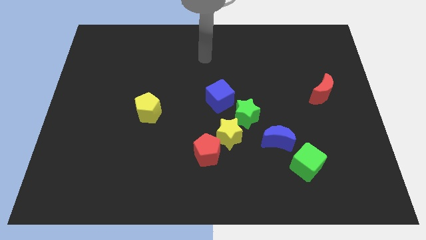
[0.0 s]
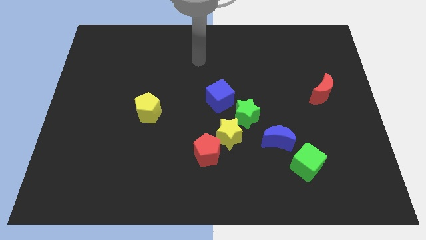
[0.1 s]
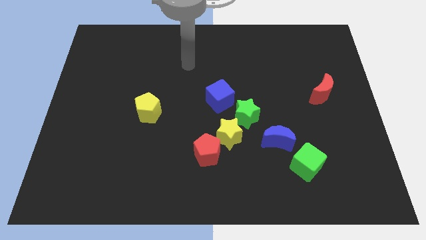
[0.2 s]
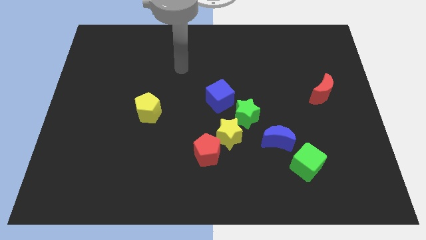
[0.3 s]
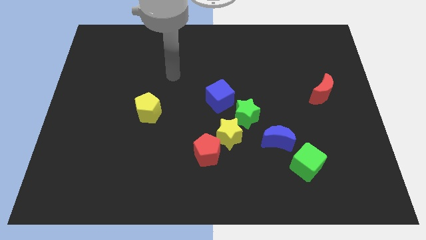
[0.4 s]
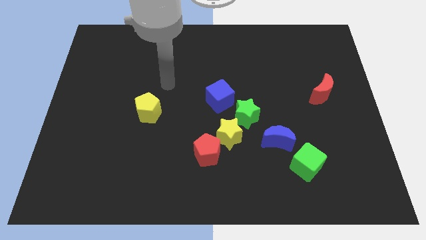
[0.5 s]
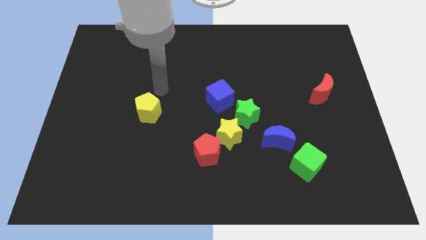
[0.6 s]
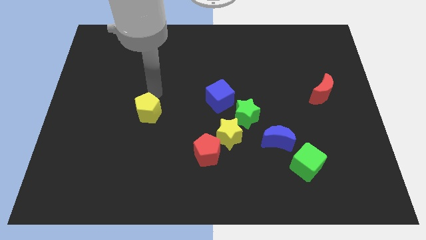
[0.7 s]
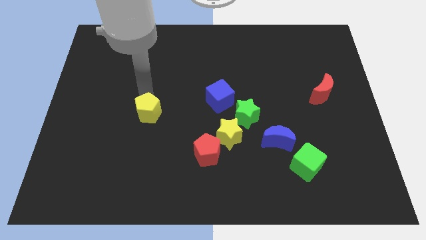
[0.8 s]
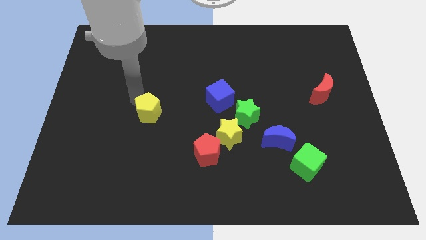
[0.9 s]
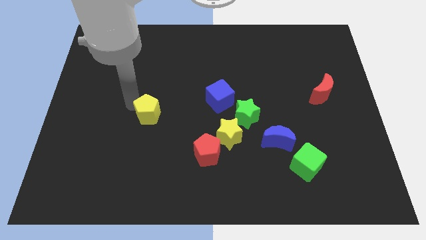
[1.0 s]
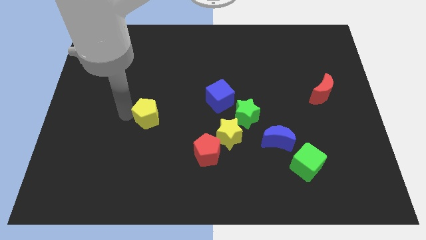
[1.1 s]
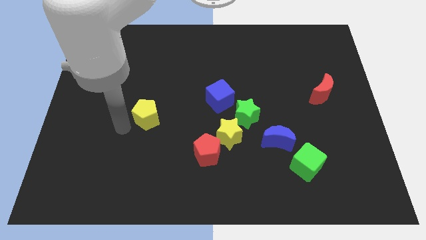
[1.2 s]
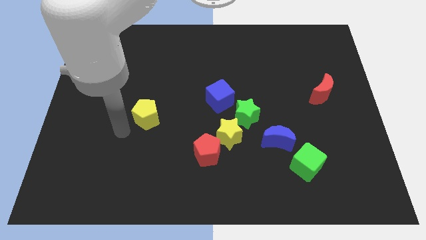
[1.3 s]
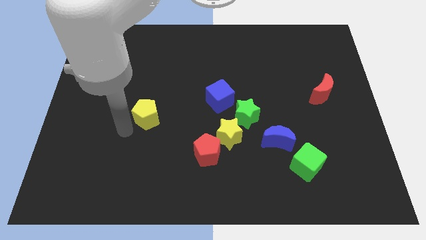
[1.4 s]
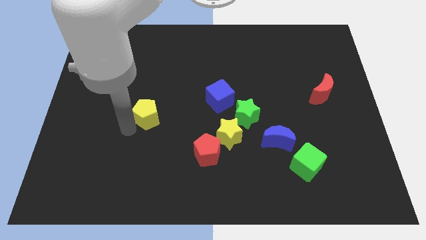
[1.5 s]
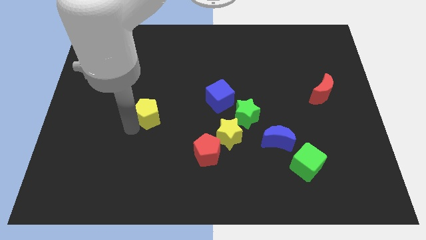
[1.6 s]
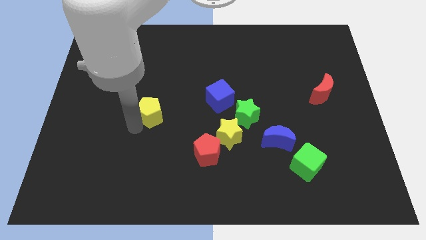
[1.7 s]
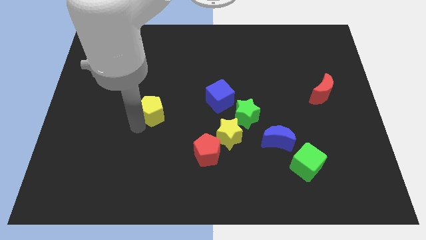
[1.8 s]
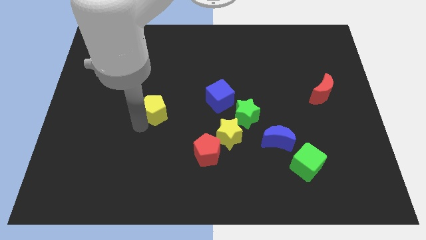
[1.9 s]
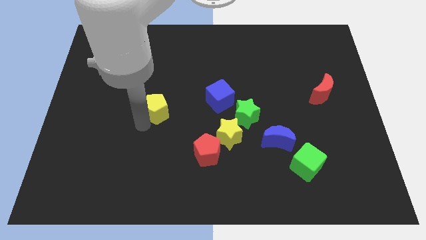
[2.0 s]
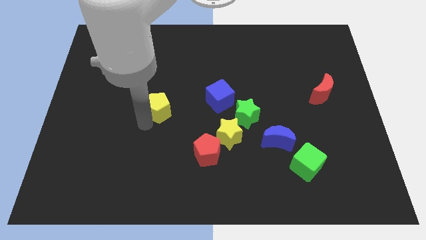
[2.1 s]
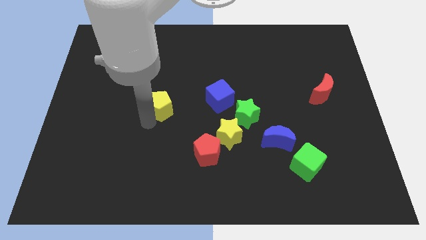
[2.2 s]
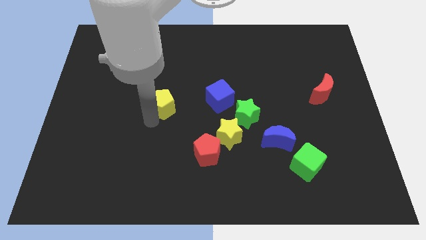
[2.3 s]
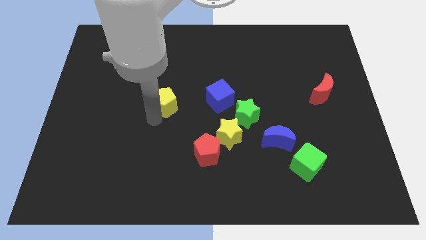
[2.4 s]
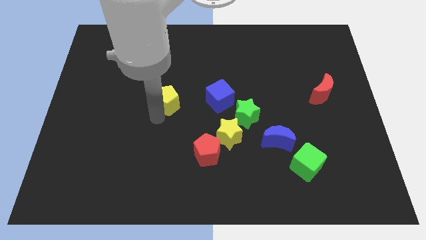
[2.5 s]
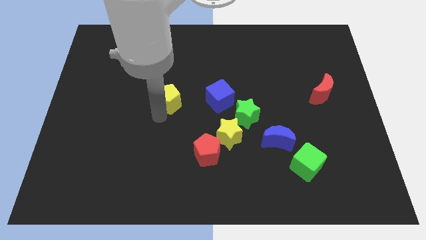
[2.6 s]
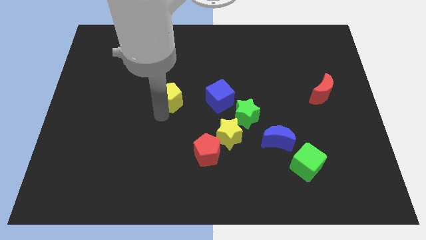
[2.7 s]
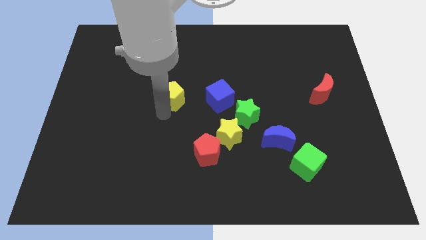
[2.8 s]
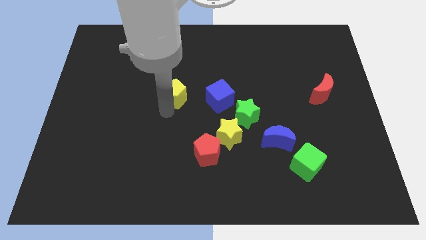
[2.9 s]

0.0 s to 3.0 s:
slide the yellow pentagon up and to the right a little bit

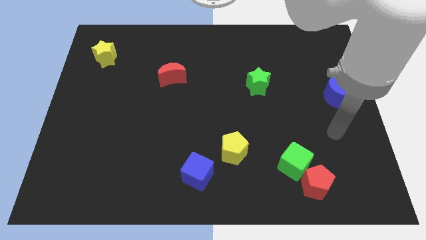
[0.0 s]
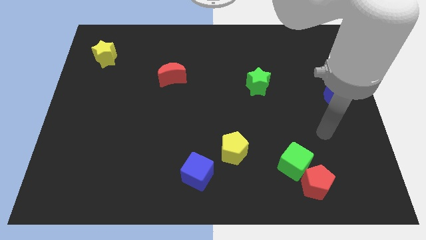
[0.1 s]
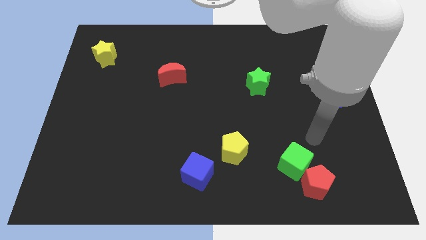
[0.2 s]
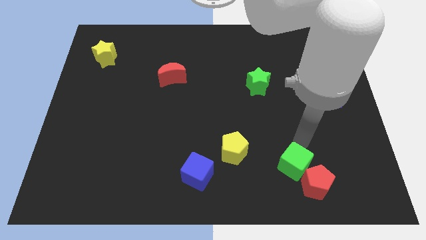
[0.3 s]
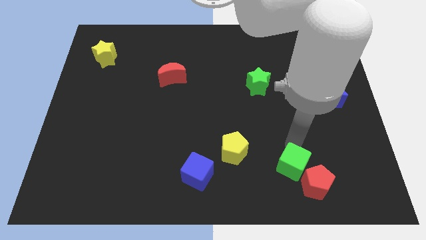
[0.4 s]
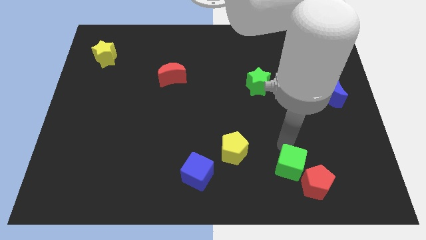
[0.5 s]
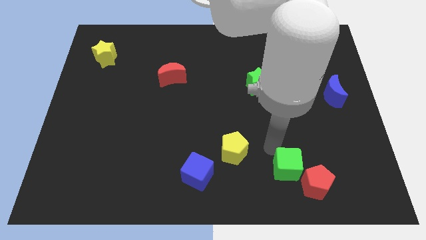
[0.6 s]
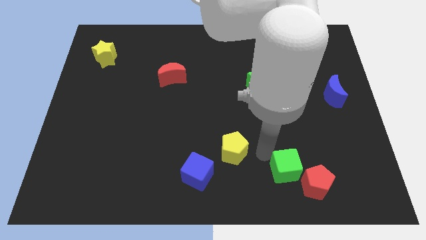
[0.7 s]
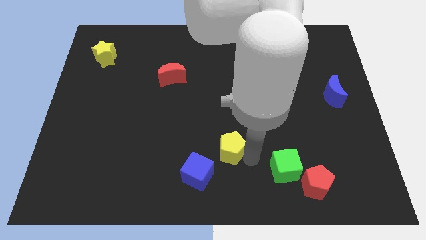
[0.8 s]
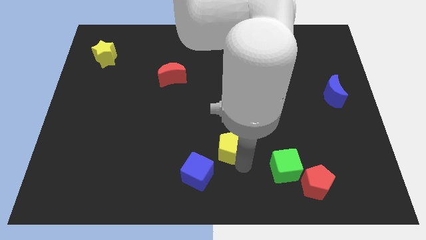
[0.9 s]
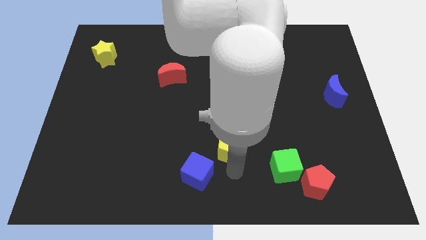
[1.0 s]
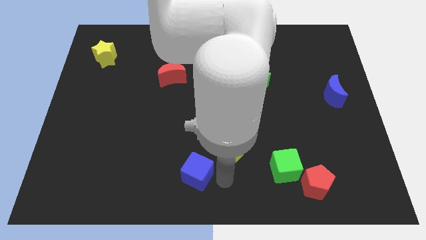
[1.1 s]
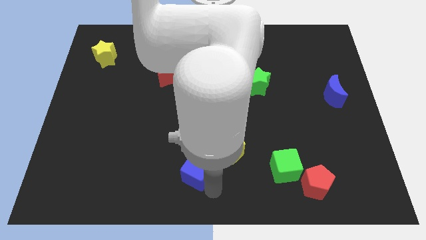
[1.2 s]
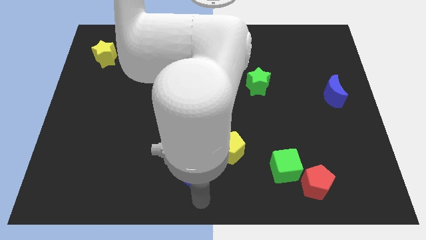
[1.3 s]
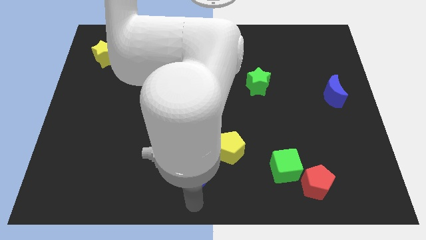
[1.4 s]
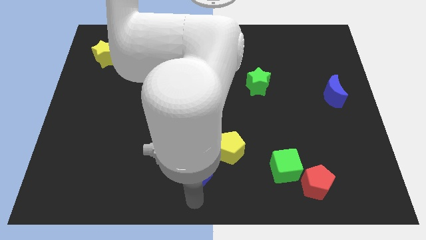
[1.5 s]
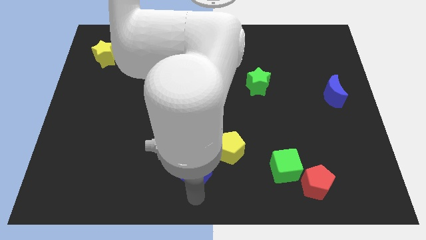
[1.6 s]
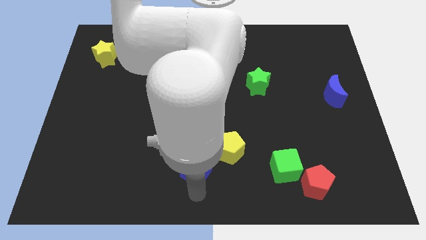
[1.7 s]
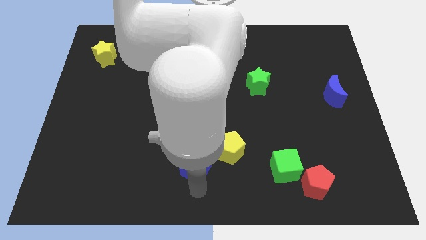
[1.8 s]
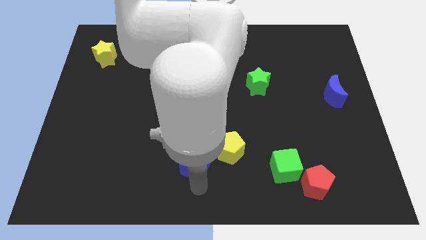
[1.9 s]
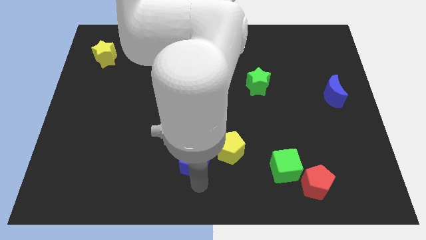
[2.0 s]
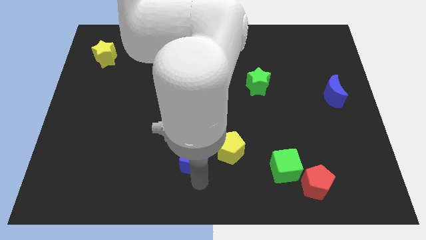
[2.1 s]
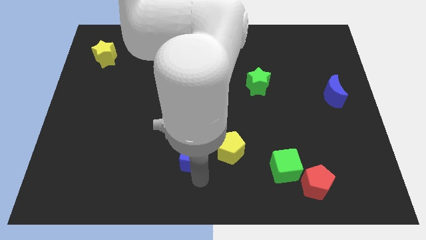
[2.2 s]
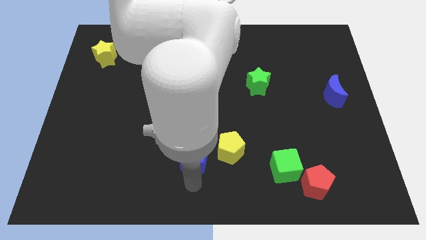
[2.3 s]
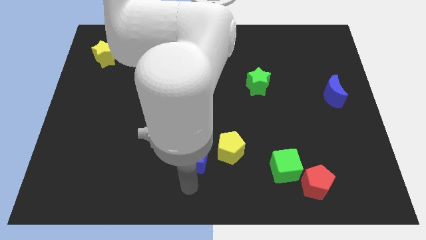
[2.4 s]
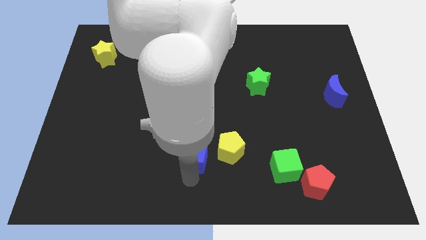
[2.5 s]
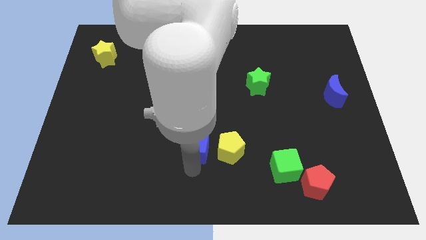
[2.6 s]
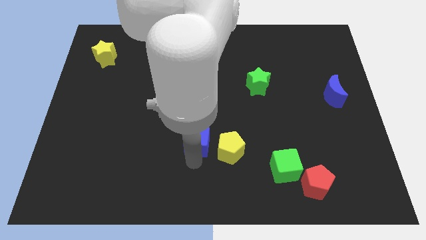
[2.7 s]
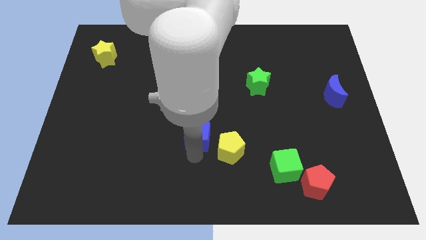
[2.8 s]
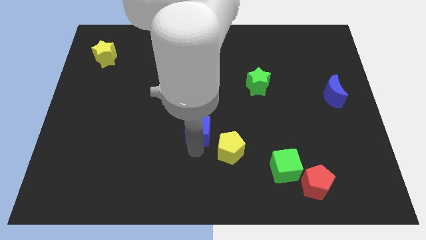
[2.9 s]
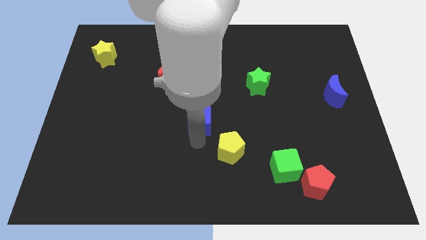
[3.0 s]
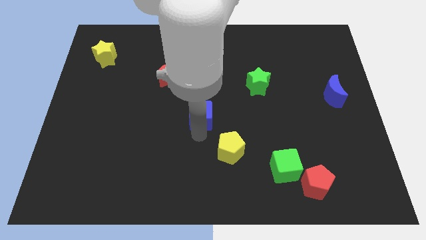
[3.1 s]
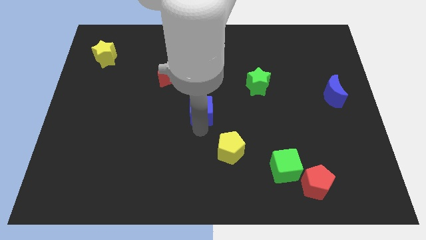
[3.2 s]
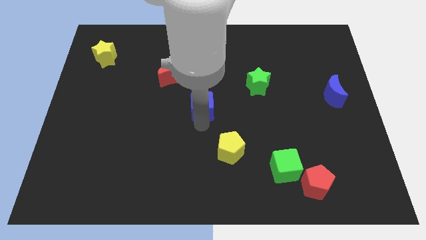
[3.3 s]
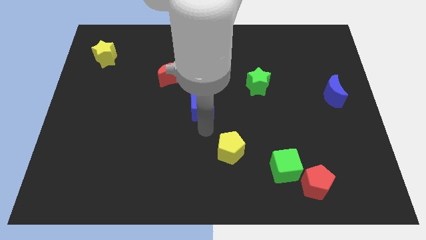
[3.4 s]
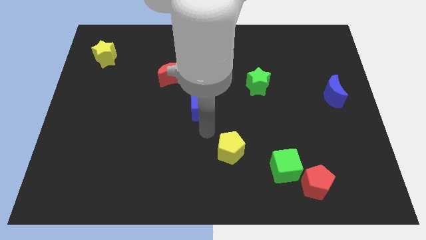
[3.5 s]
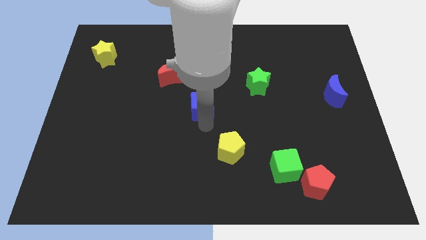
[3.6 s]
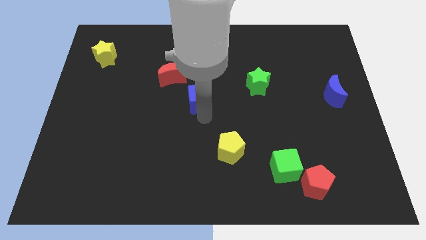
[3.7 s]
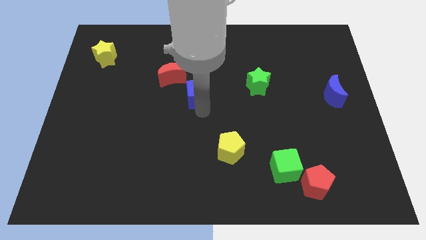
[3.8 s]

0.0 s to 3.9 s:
slide the blue cube upwards

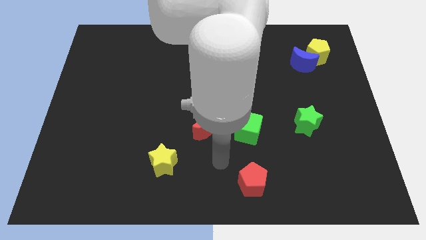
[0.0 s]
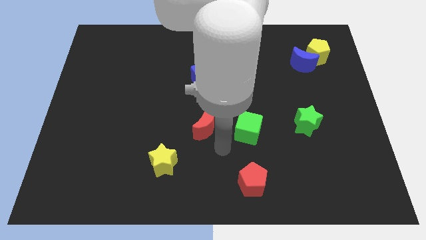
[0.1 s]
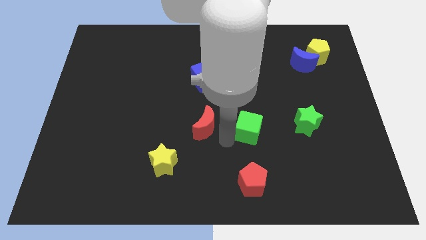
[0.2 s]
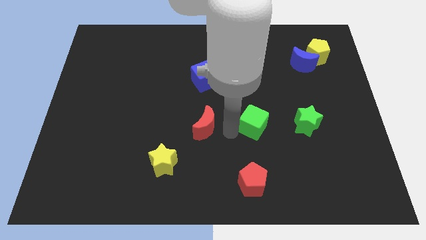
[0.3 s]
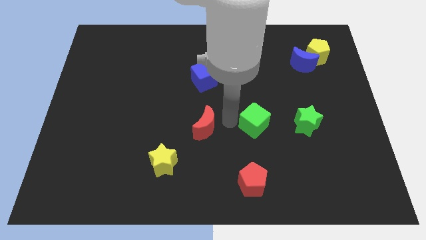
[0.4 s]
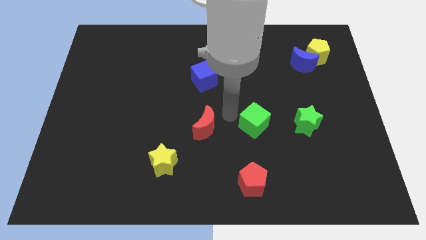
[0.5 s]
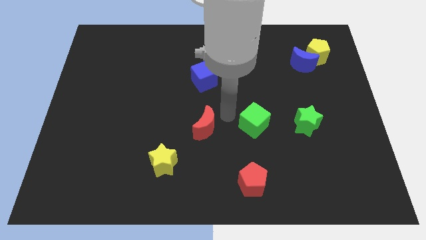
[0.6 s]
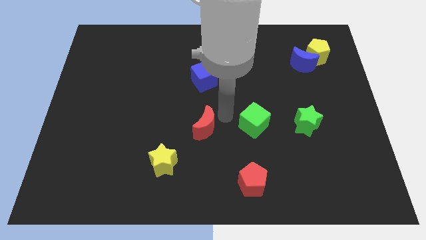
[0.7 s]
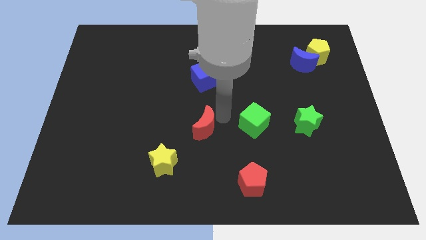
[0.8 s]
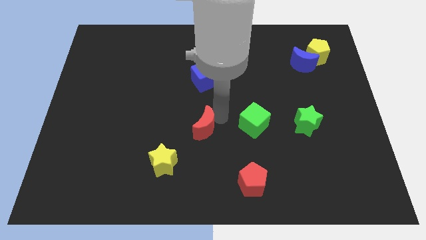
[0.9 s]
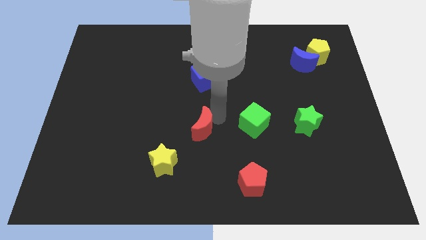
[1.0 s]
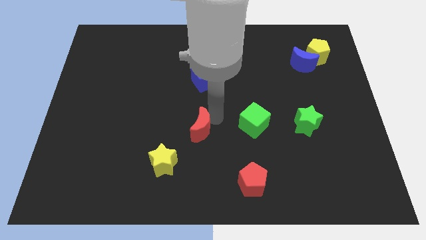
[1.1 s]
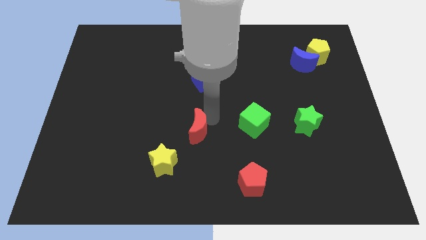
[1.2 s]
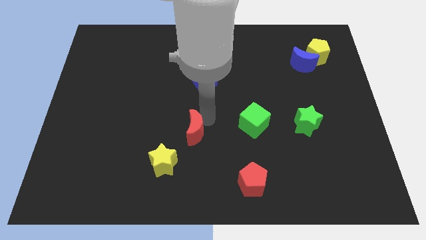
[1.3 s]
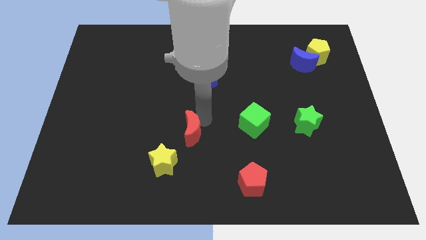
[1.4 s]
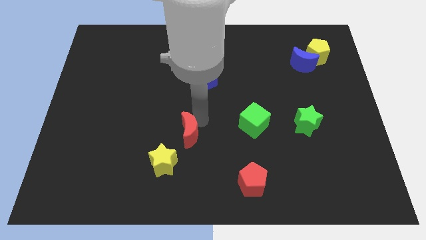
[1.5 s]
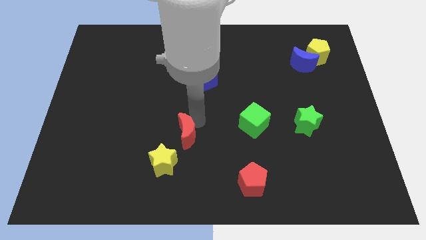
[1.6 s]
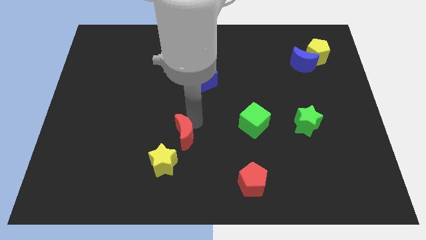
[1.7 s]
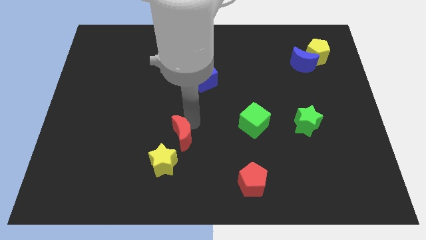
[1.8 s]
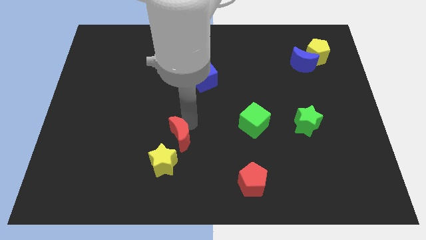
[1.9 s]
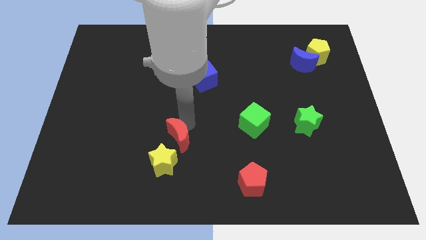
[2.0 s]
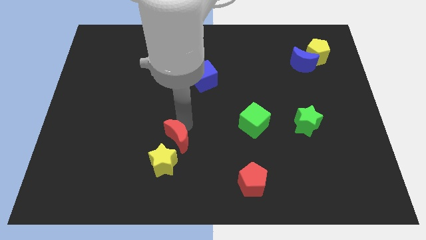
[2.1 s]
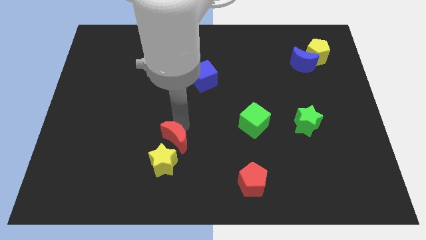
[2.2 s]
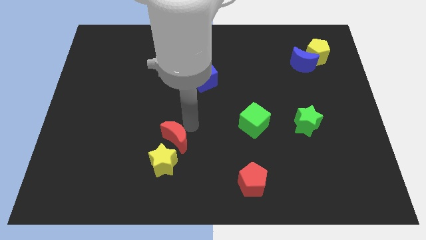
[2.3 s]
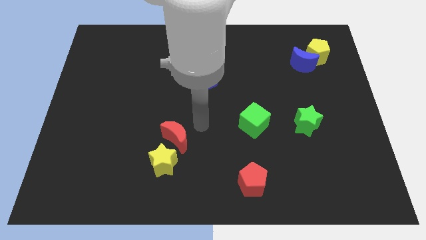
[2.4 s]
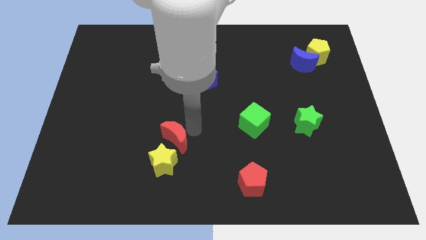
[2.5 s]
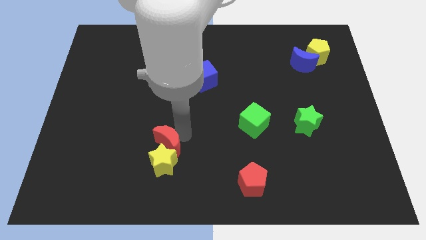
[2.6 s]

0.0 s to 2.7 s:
slide the red moon somewhat downwards and then to the left
